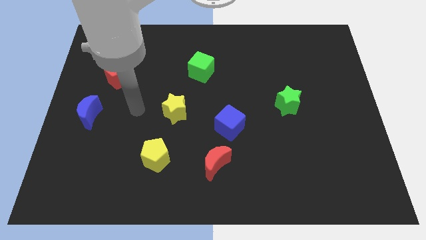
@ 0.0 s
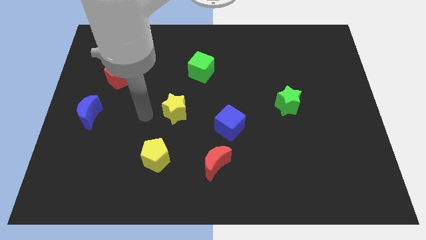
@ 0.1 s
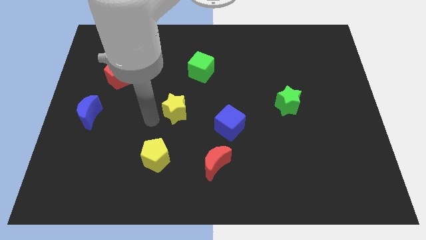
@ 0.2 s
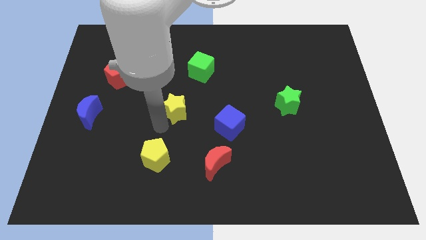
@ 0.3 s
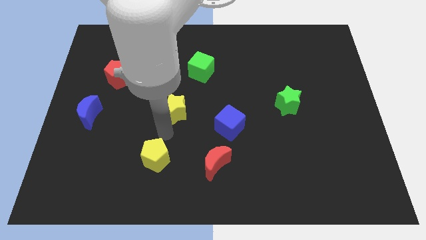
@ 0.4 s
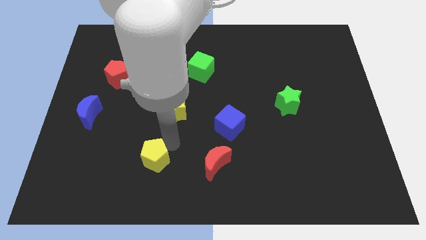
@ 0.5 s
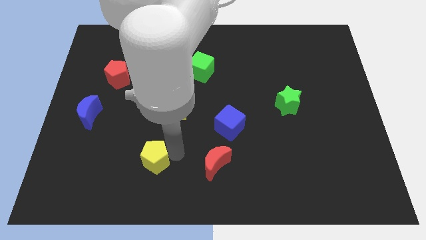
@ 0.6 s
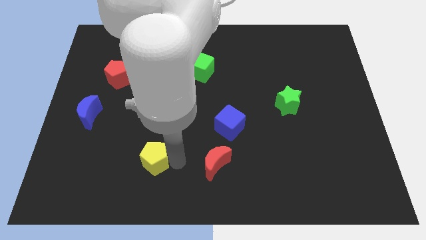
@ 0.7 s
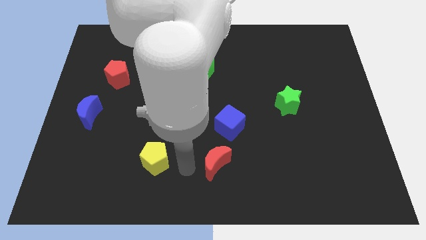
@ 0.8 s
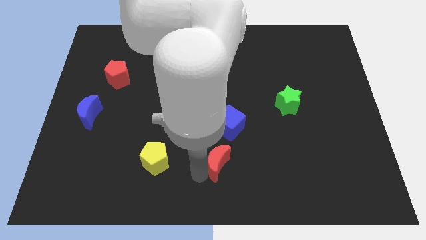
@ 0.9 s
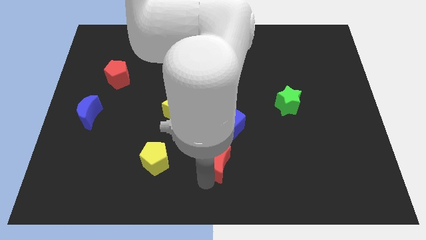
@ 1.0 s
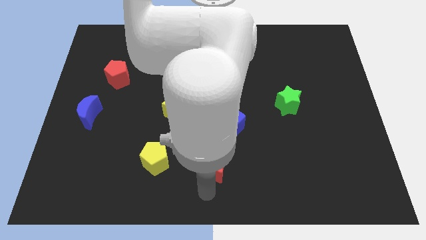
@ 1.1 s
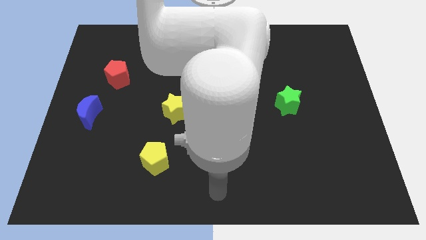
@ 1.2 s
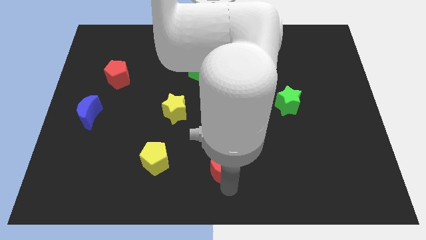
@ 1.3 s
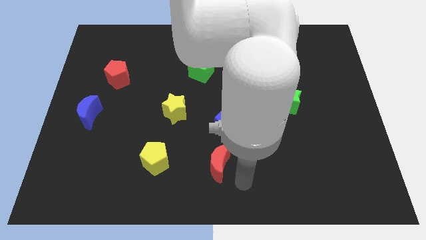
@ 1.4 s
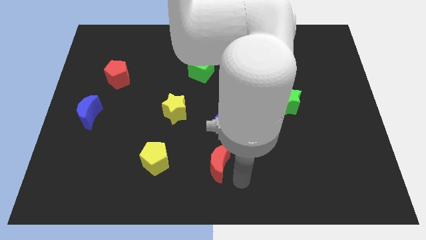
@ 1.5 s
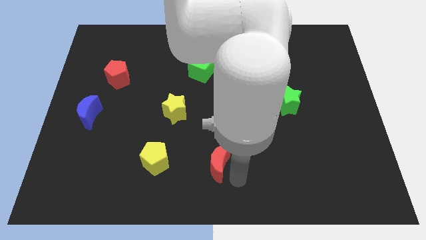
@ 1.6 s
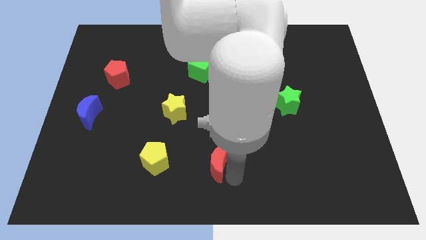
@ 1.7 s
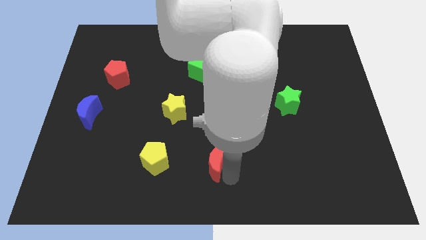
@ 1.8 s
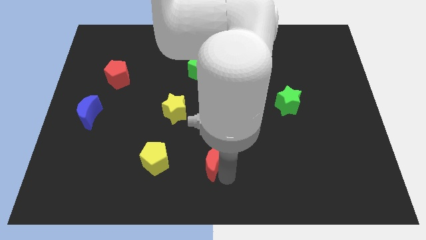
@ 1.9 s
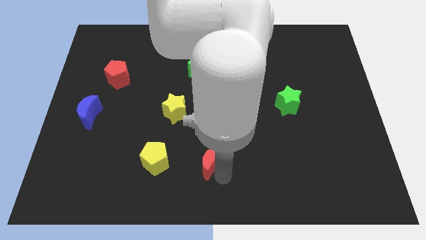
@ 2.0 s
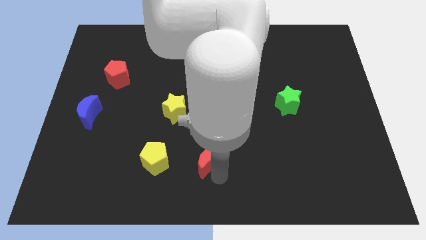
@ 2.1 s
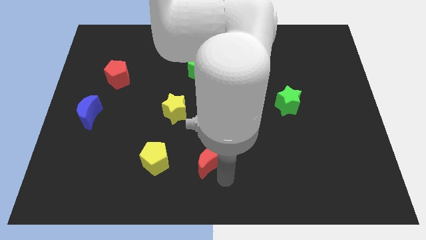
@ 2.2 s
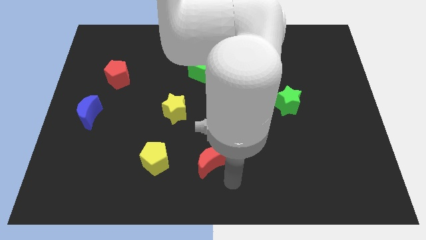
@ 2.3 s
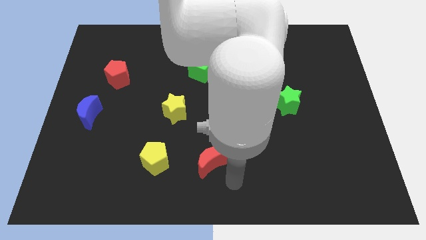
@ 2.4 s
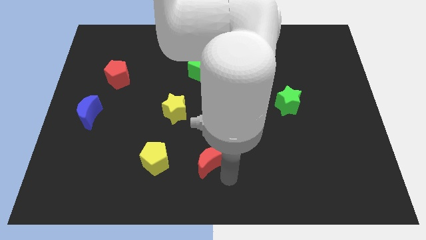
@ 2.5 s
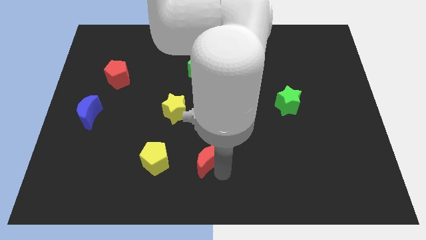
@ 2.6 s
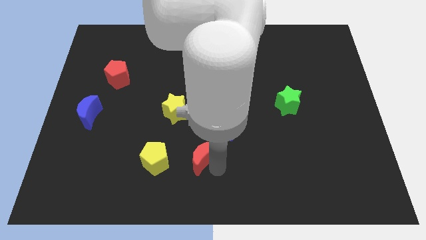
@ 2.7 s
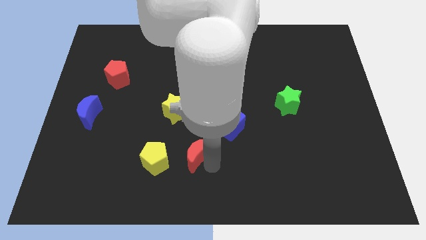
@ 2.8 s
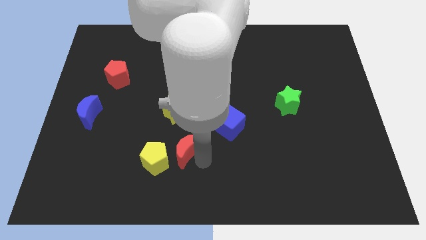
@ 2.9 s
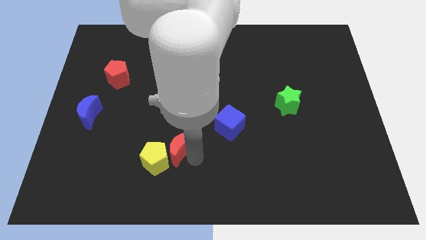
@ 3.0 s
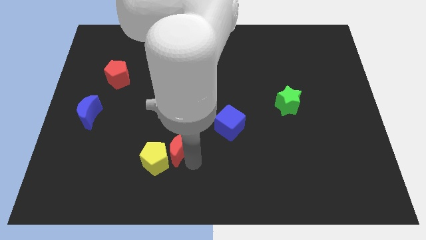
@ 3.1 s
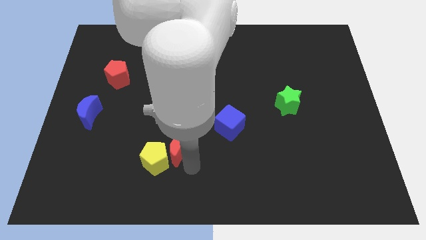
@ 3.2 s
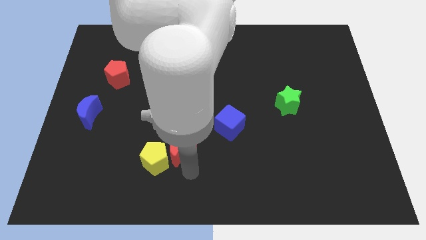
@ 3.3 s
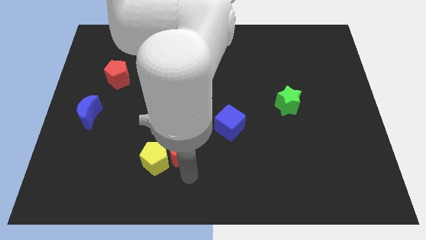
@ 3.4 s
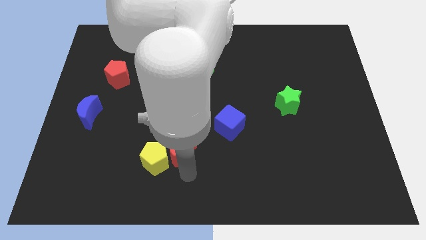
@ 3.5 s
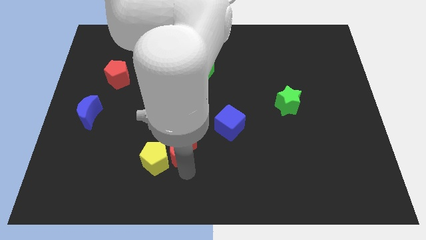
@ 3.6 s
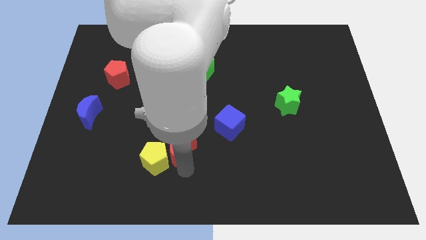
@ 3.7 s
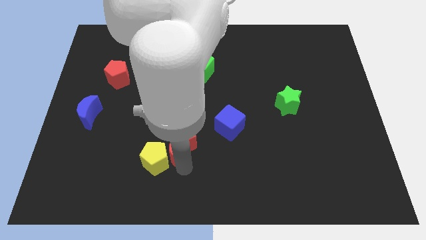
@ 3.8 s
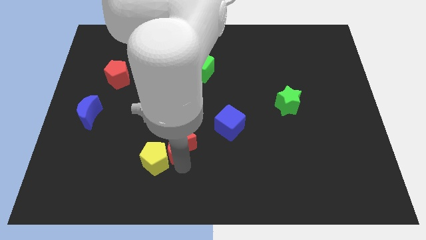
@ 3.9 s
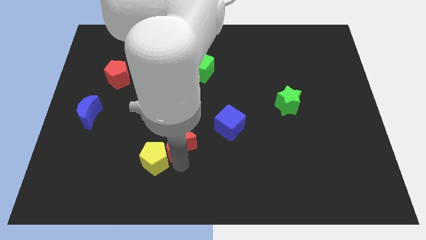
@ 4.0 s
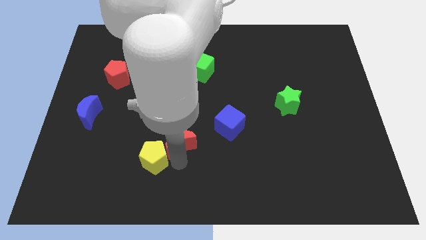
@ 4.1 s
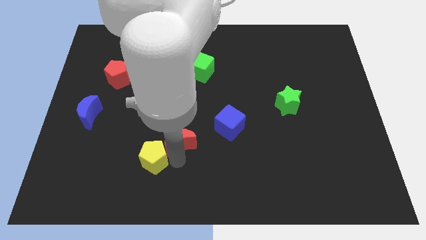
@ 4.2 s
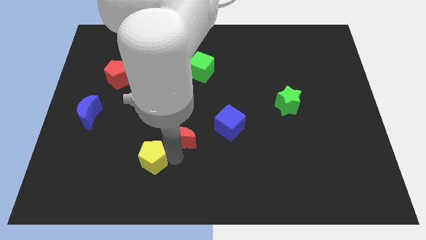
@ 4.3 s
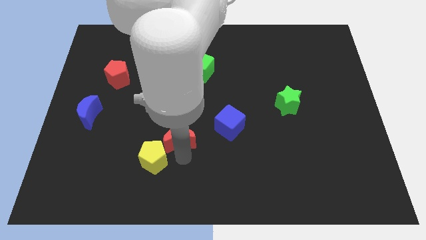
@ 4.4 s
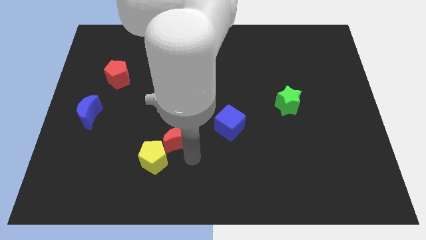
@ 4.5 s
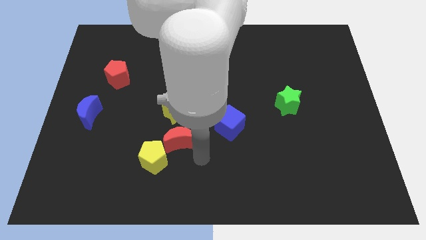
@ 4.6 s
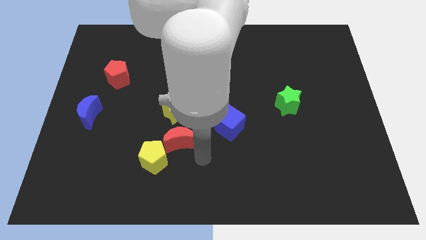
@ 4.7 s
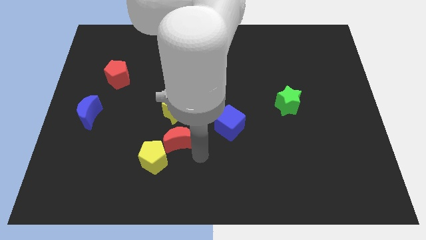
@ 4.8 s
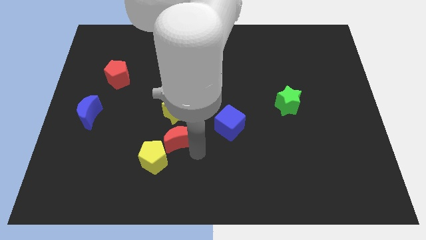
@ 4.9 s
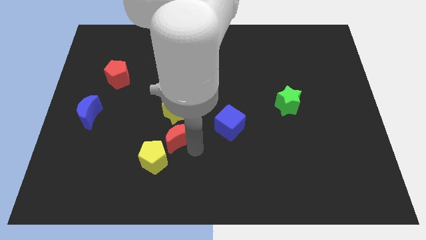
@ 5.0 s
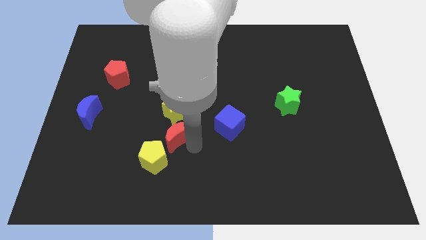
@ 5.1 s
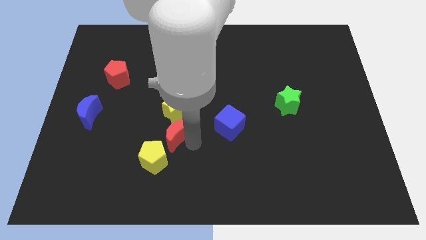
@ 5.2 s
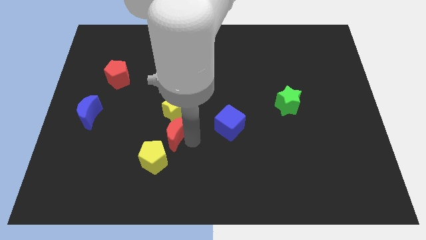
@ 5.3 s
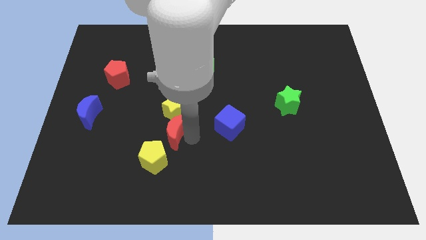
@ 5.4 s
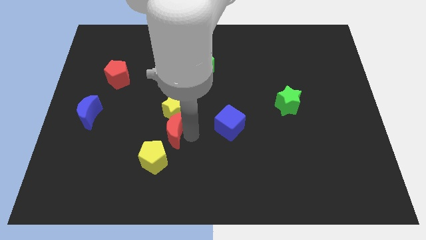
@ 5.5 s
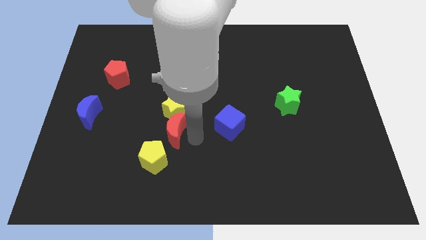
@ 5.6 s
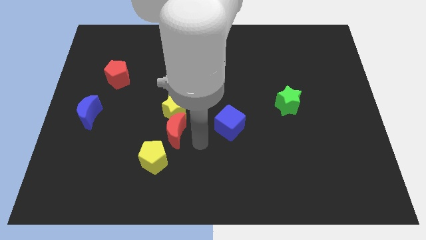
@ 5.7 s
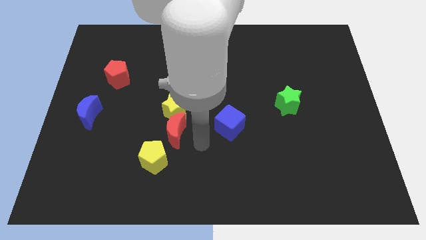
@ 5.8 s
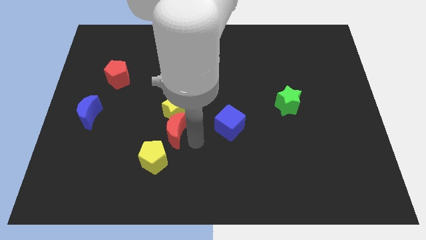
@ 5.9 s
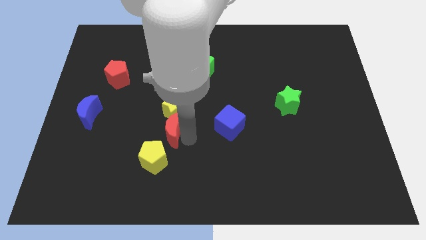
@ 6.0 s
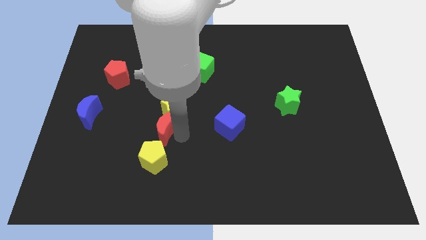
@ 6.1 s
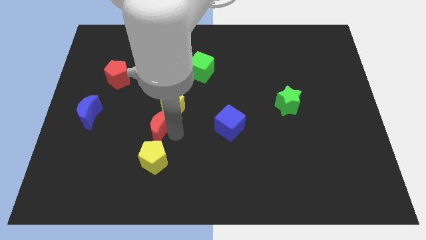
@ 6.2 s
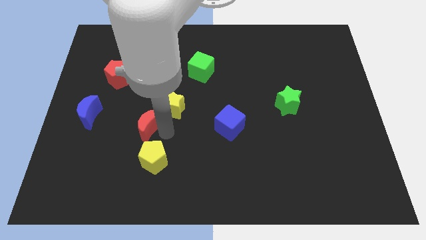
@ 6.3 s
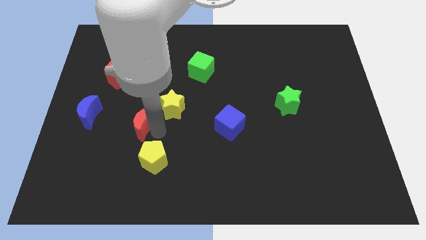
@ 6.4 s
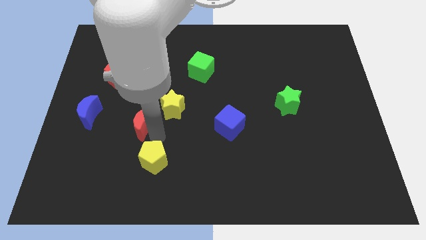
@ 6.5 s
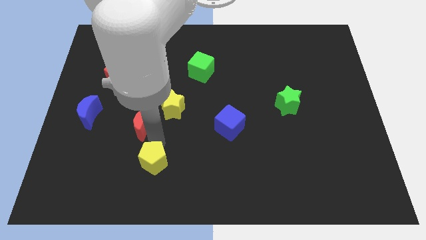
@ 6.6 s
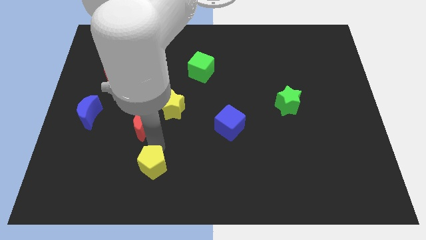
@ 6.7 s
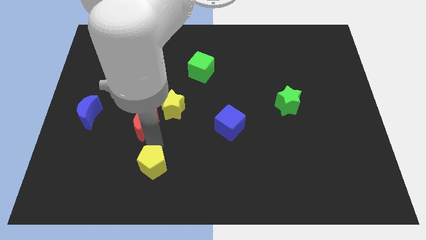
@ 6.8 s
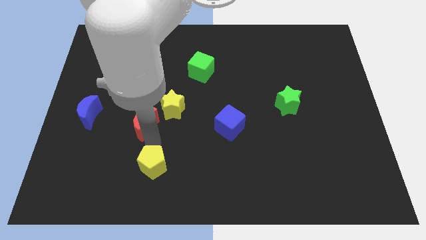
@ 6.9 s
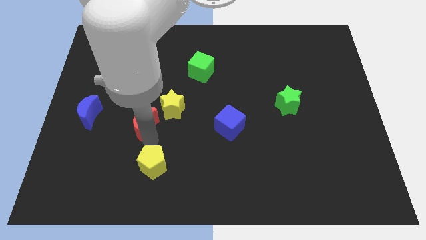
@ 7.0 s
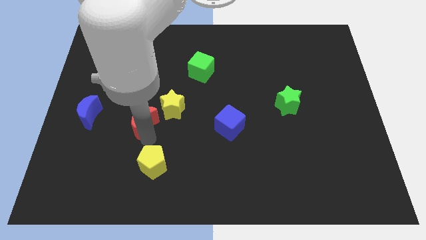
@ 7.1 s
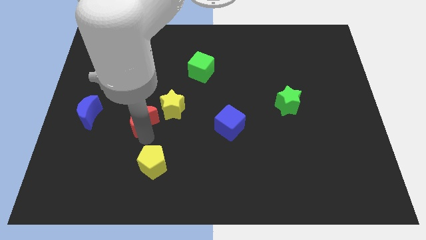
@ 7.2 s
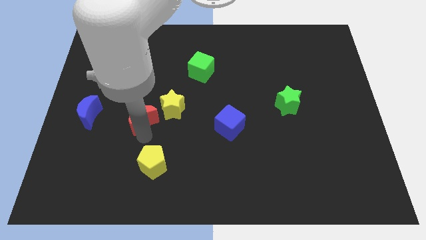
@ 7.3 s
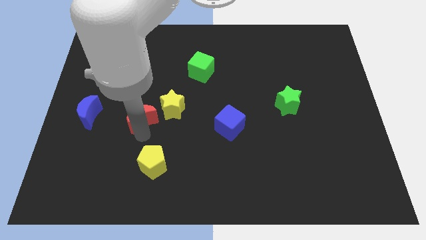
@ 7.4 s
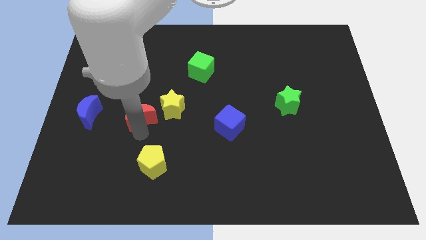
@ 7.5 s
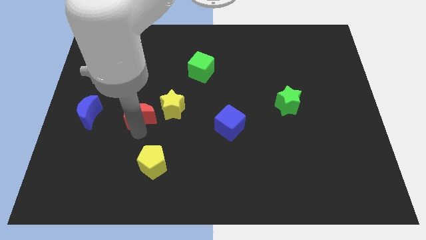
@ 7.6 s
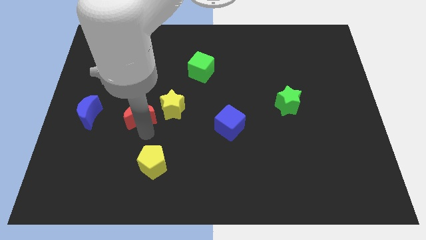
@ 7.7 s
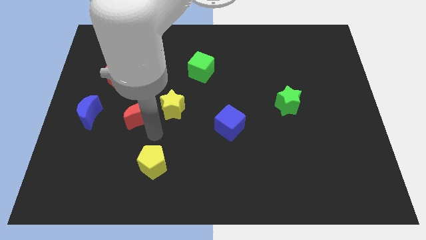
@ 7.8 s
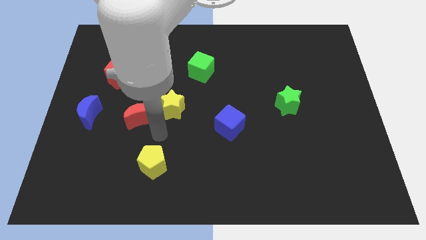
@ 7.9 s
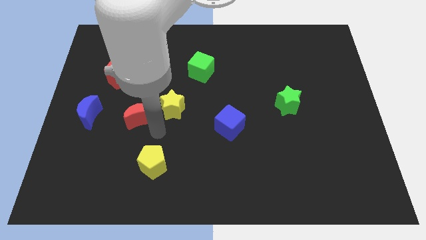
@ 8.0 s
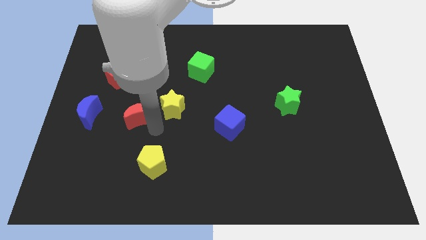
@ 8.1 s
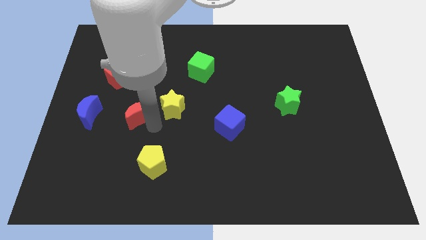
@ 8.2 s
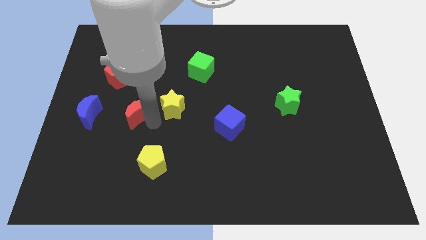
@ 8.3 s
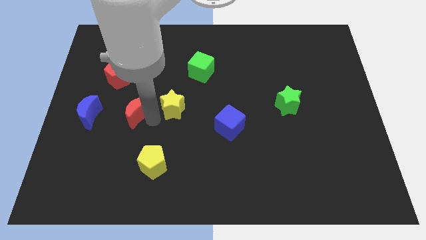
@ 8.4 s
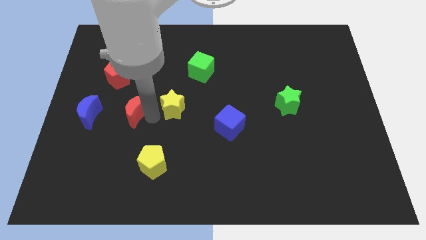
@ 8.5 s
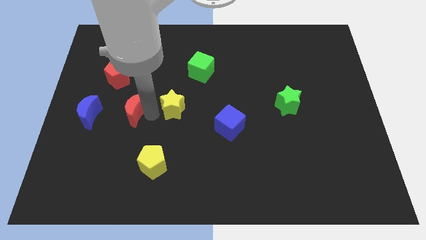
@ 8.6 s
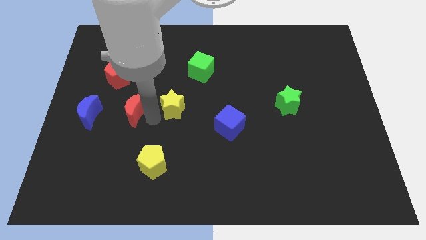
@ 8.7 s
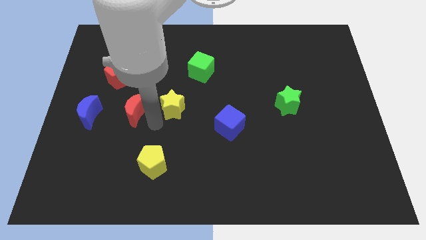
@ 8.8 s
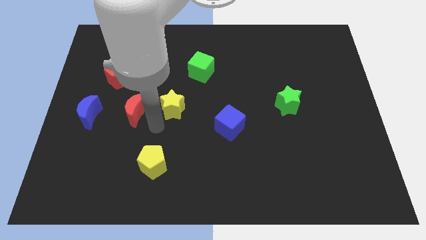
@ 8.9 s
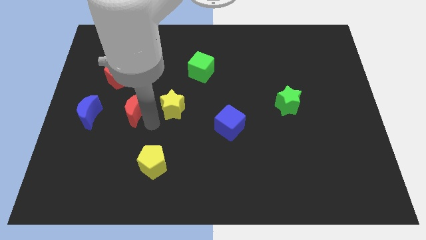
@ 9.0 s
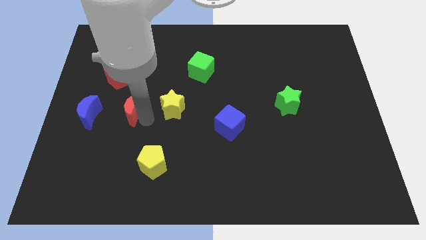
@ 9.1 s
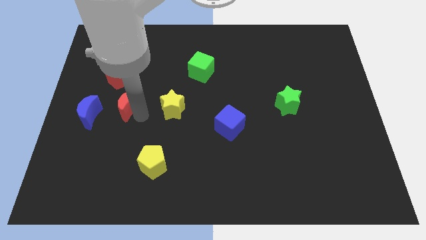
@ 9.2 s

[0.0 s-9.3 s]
put the red moon to the top right side of the blue moon
